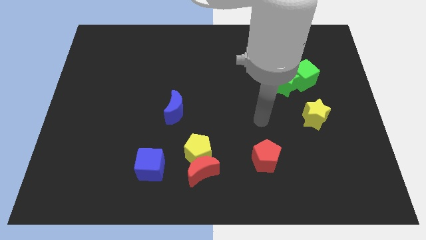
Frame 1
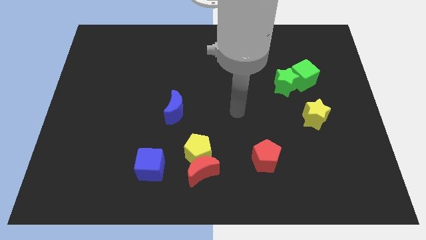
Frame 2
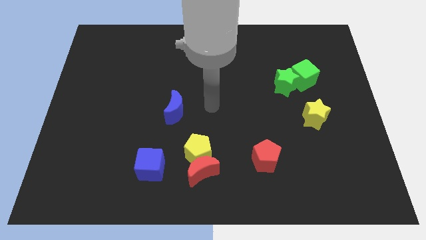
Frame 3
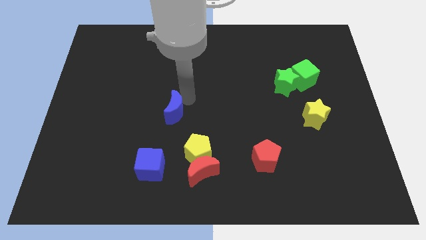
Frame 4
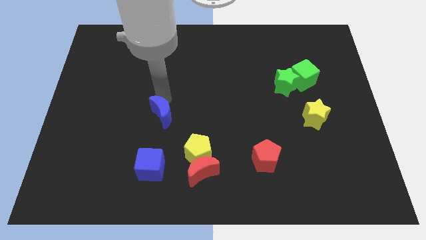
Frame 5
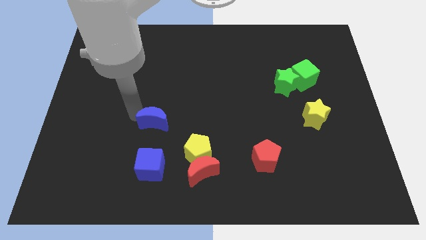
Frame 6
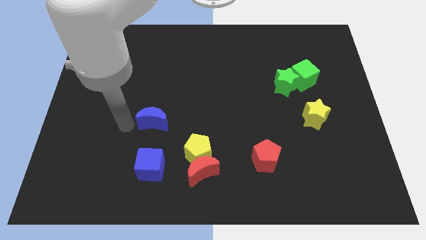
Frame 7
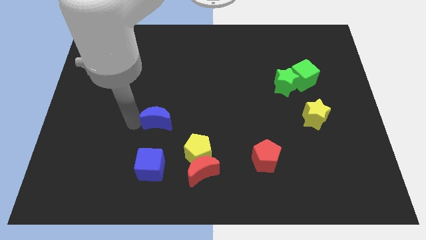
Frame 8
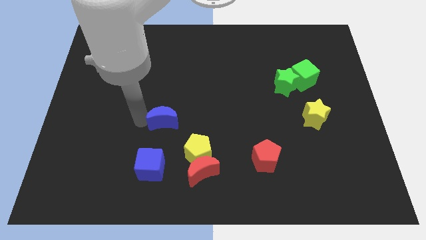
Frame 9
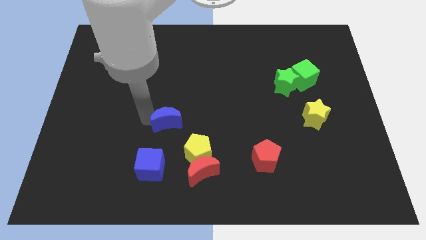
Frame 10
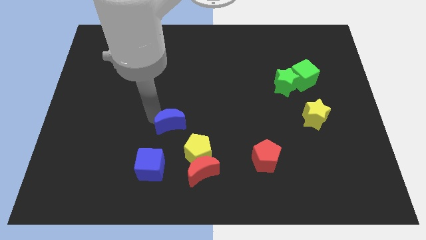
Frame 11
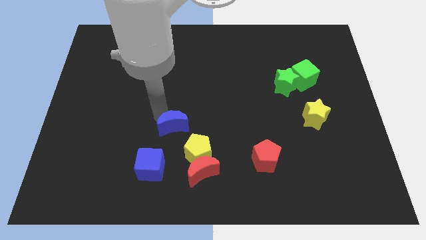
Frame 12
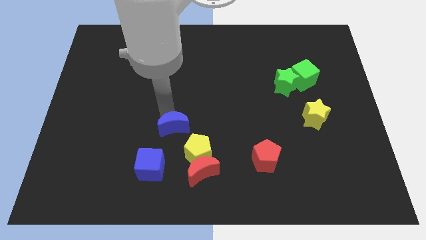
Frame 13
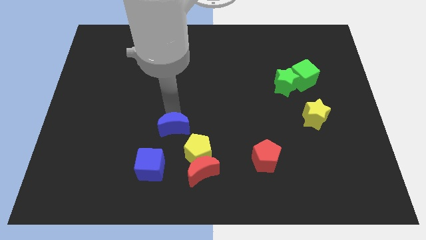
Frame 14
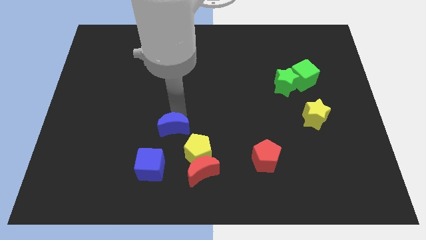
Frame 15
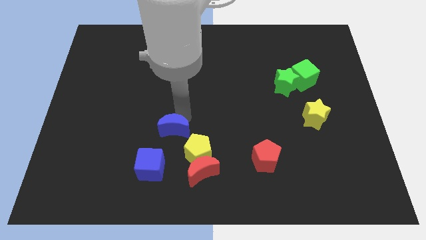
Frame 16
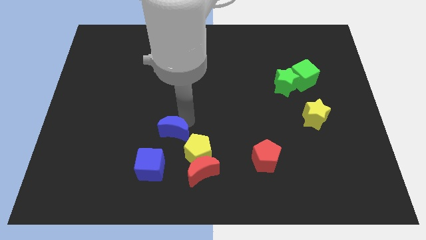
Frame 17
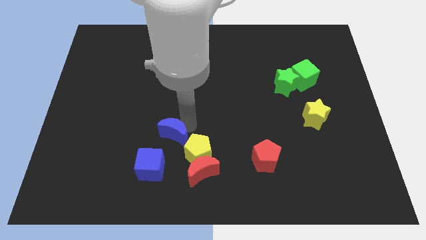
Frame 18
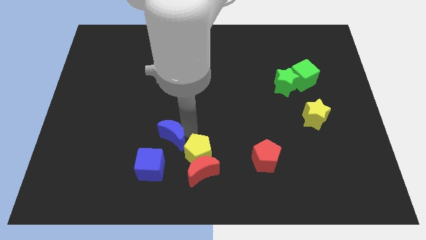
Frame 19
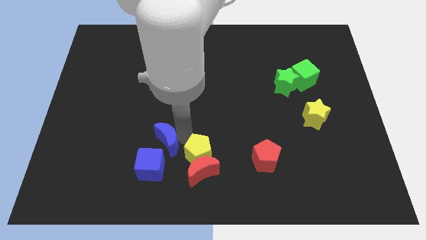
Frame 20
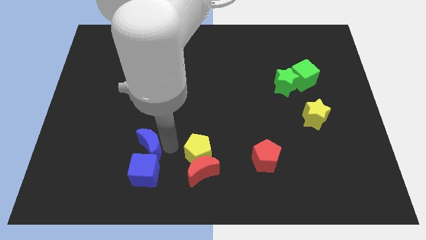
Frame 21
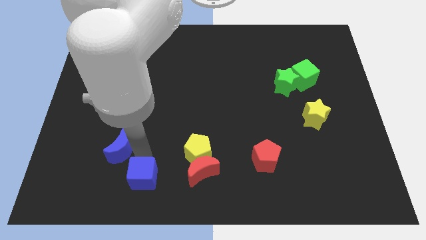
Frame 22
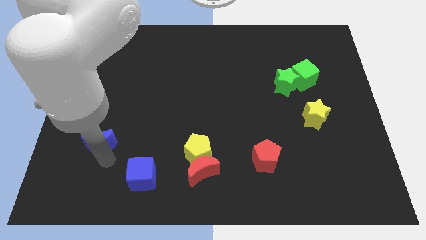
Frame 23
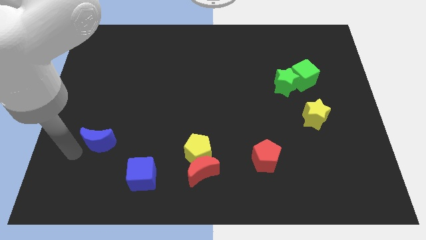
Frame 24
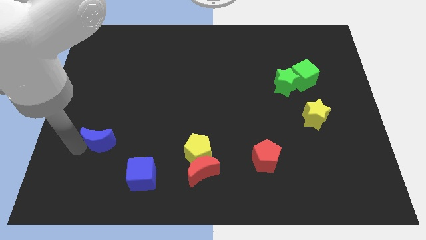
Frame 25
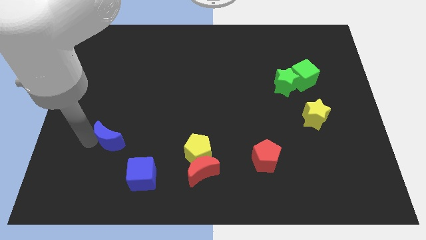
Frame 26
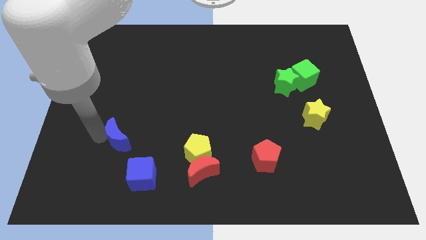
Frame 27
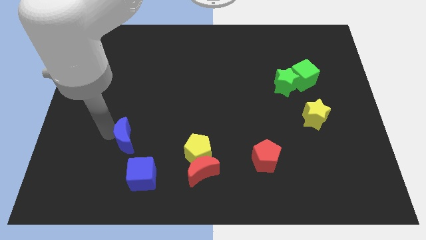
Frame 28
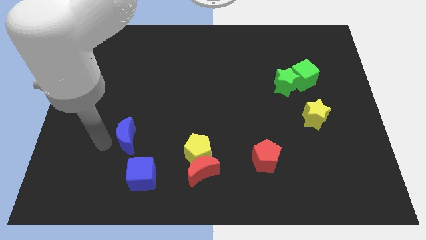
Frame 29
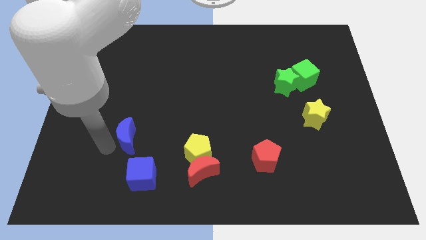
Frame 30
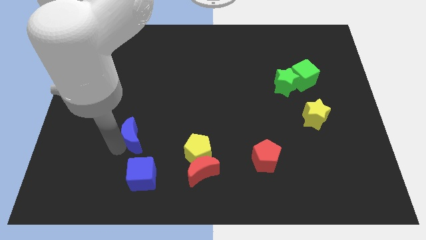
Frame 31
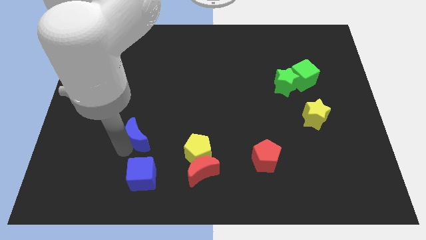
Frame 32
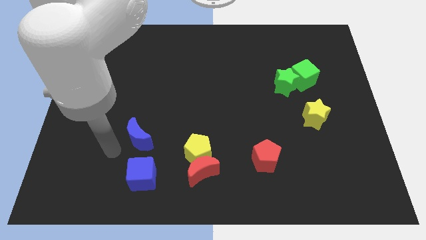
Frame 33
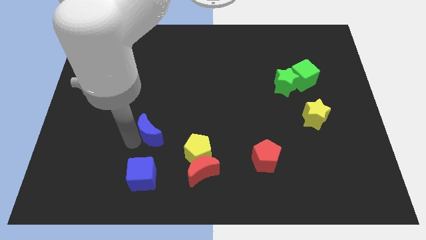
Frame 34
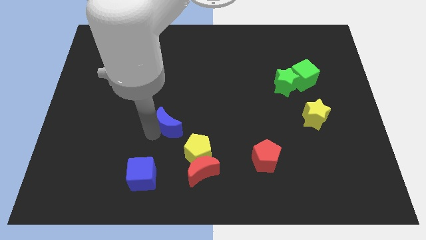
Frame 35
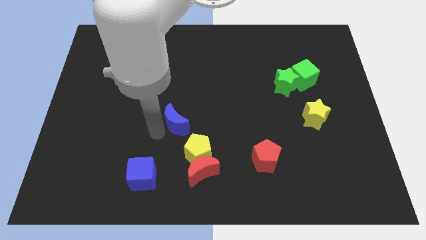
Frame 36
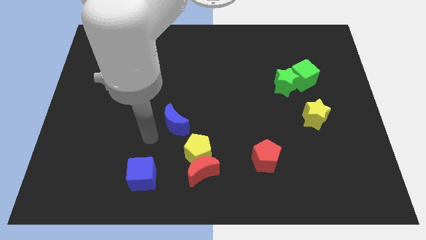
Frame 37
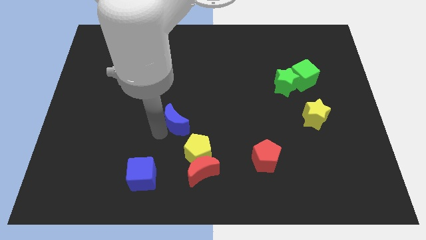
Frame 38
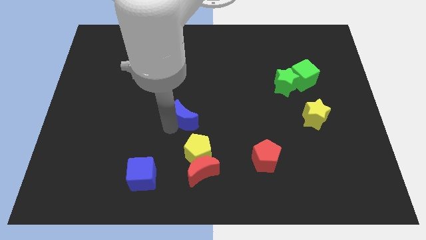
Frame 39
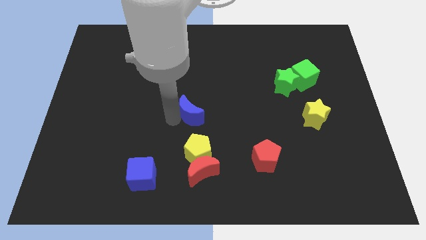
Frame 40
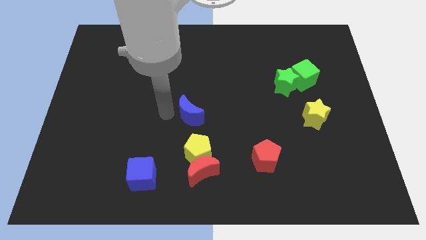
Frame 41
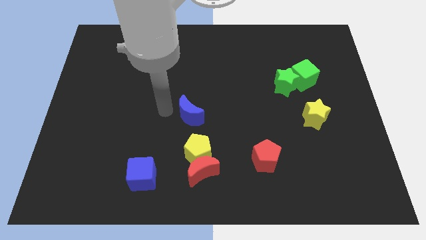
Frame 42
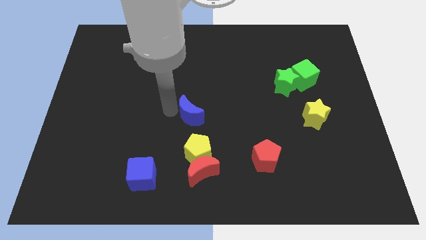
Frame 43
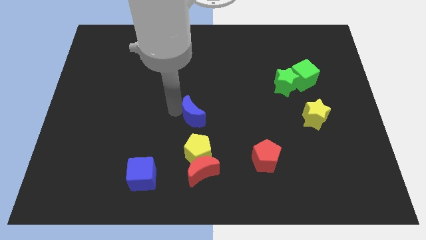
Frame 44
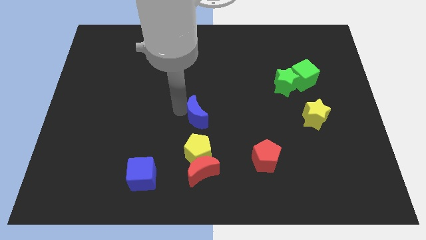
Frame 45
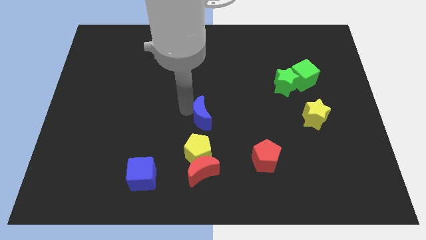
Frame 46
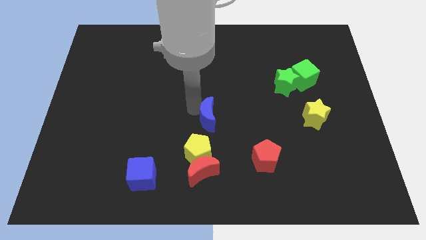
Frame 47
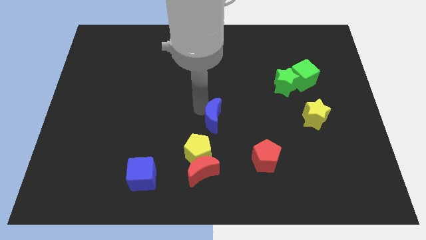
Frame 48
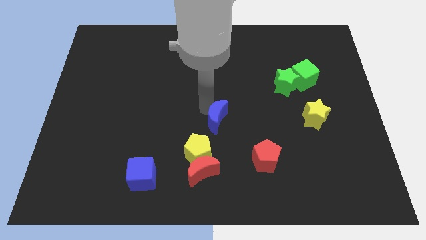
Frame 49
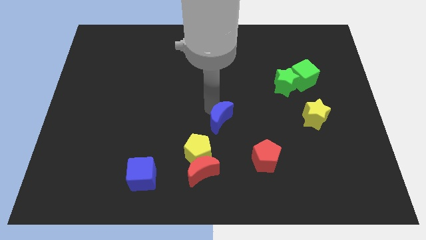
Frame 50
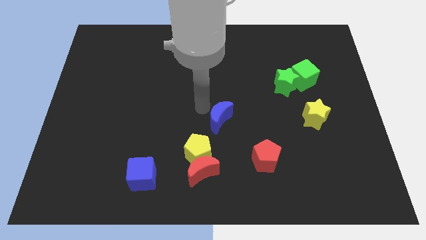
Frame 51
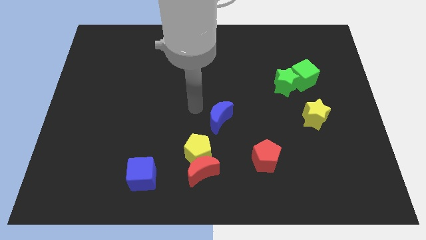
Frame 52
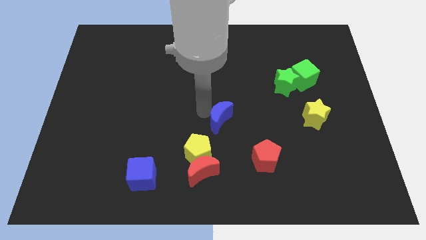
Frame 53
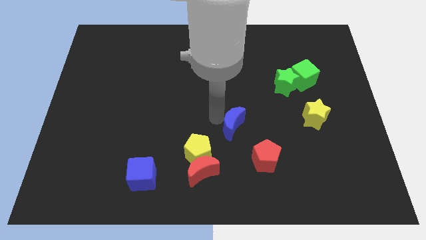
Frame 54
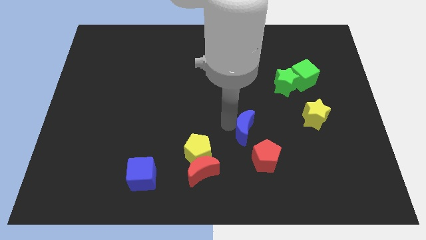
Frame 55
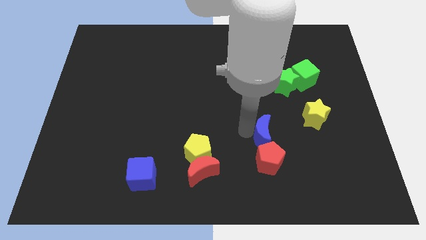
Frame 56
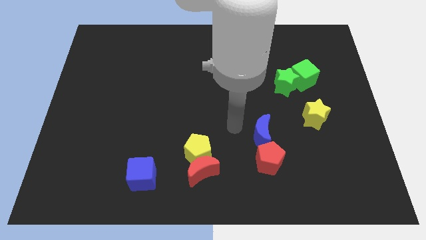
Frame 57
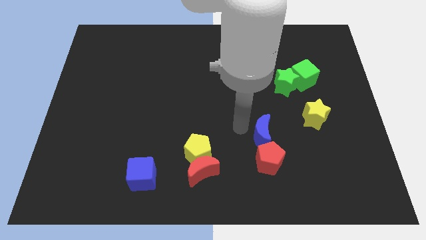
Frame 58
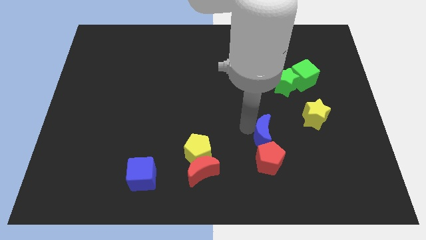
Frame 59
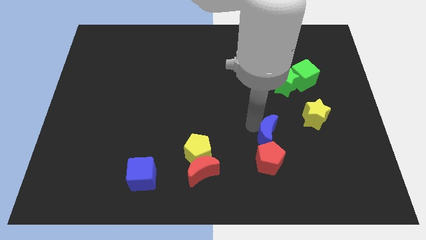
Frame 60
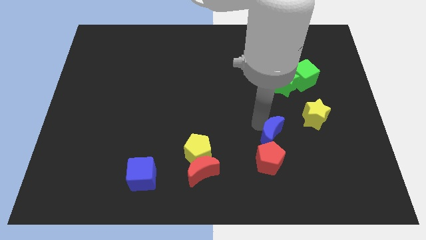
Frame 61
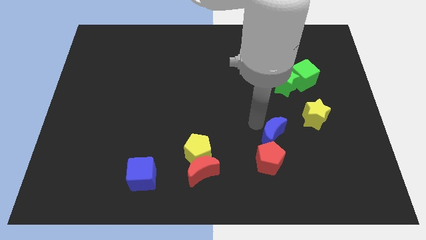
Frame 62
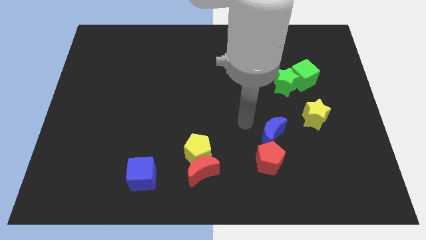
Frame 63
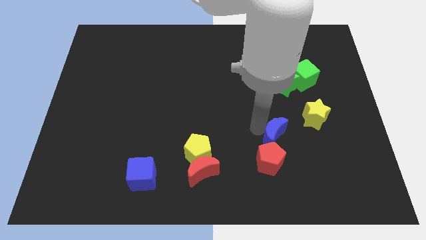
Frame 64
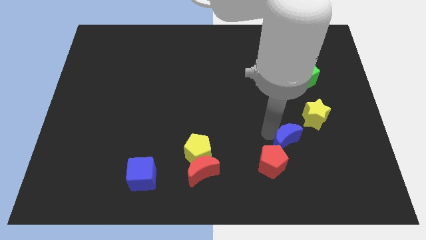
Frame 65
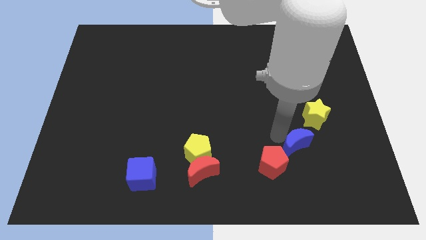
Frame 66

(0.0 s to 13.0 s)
move the blue moon right of the red pentagon

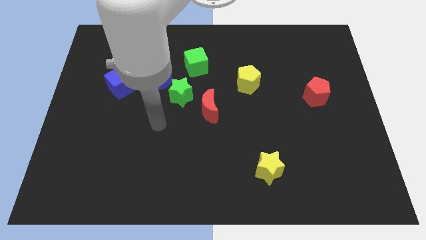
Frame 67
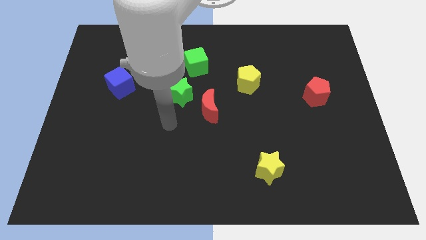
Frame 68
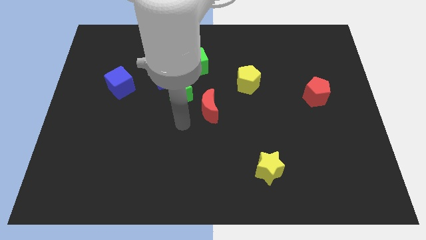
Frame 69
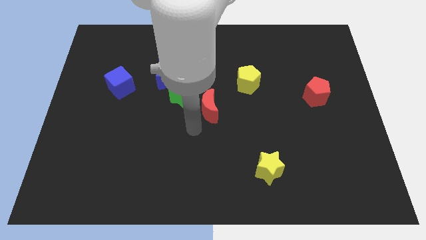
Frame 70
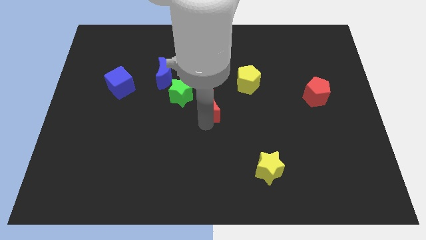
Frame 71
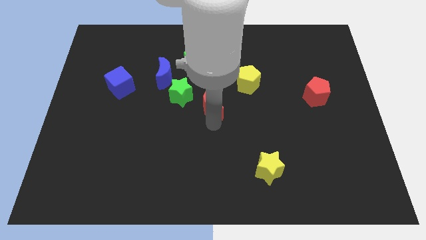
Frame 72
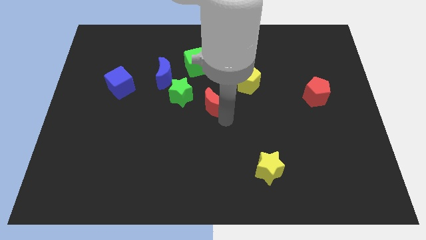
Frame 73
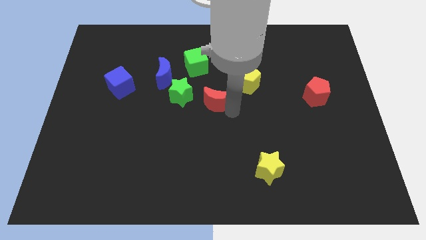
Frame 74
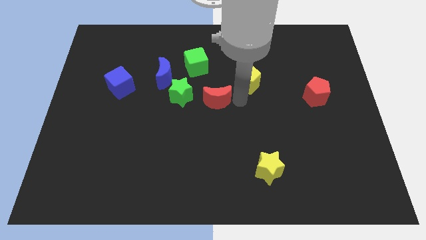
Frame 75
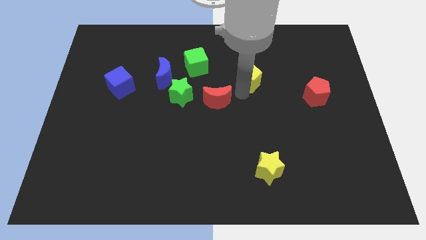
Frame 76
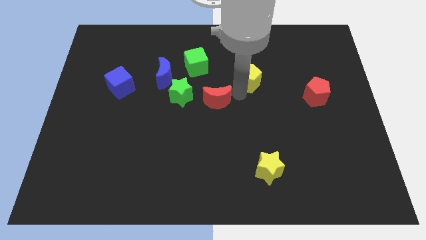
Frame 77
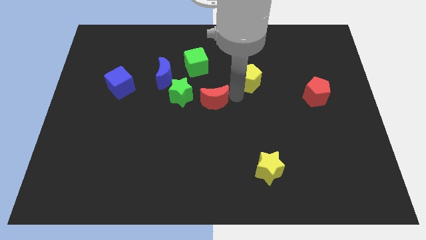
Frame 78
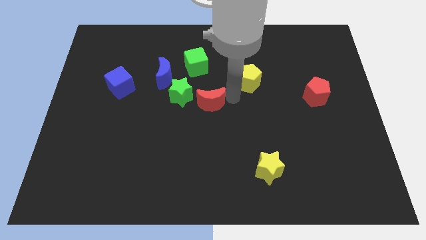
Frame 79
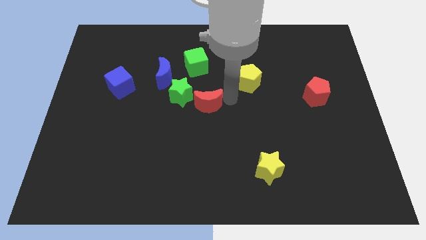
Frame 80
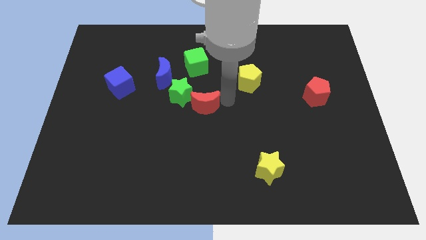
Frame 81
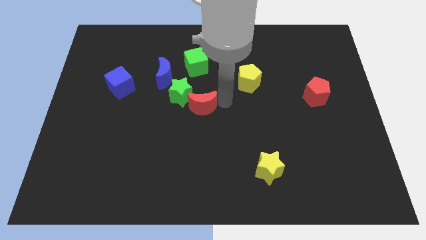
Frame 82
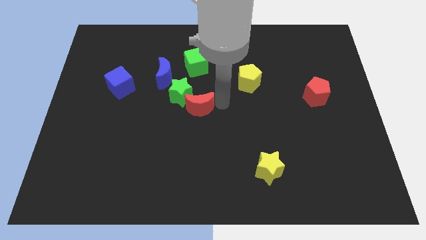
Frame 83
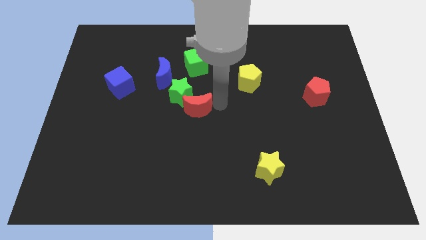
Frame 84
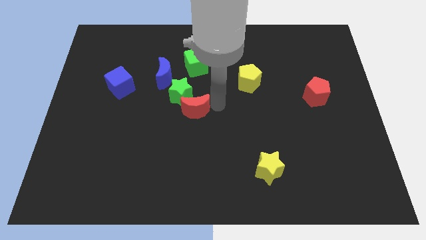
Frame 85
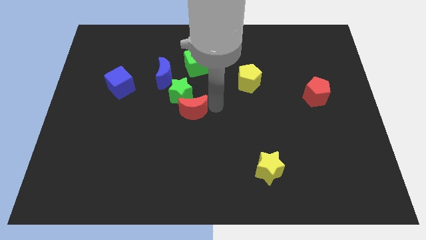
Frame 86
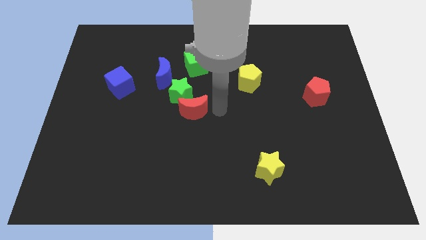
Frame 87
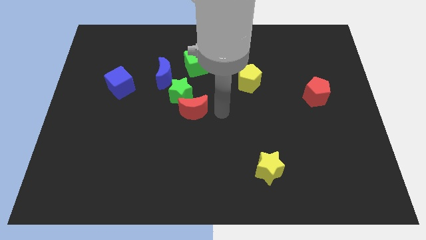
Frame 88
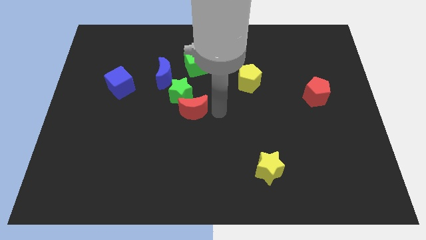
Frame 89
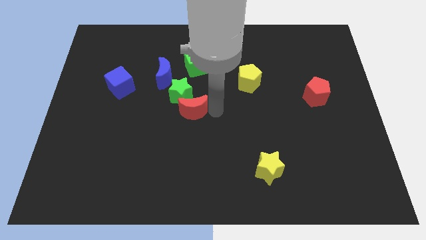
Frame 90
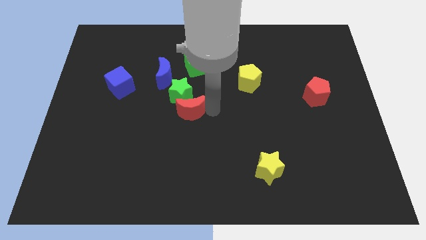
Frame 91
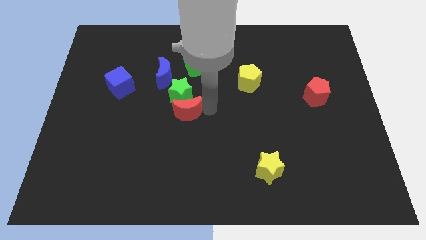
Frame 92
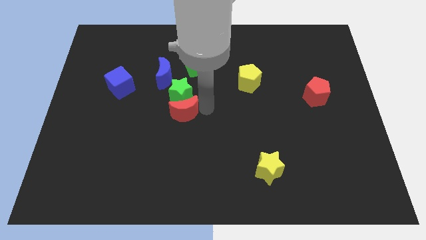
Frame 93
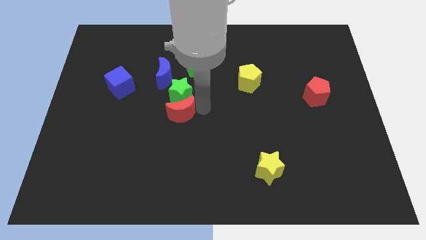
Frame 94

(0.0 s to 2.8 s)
move the red moon below the blue moon
